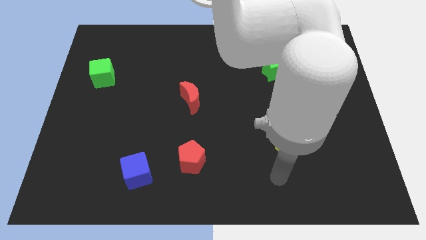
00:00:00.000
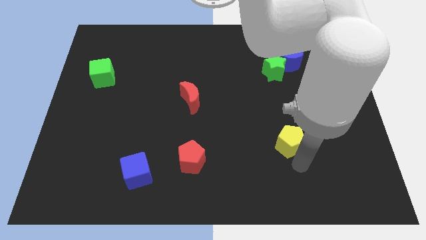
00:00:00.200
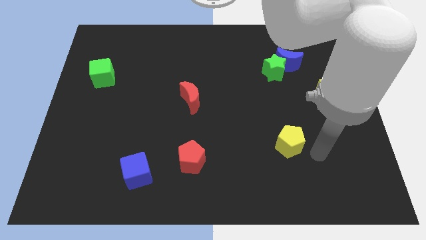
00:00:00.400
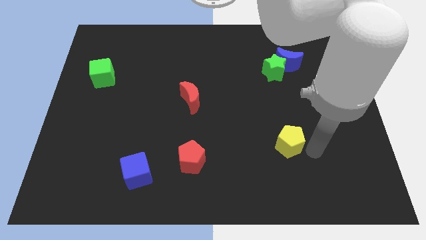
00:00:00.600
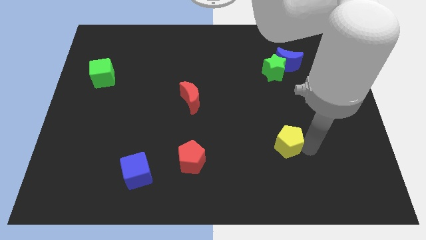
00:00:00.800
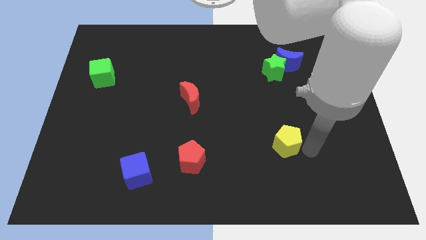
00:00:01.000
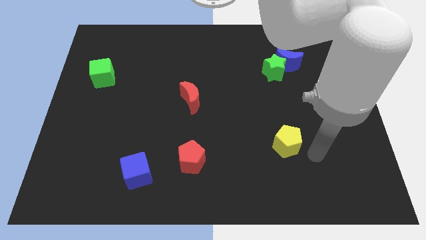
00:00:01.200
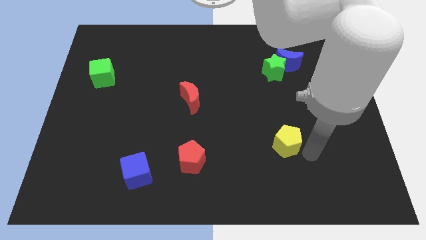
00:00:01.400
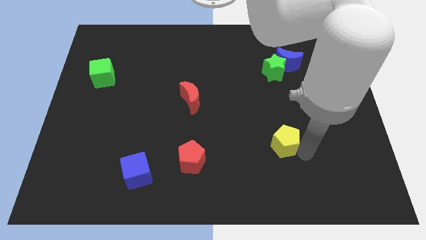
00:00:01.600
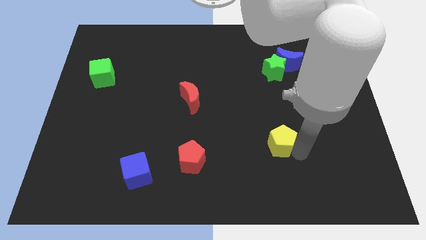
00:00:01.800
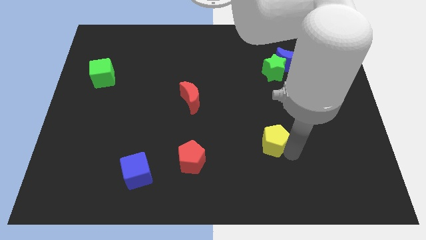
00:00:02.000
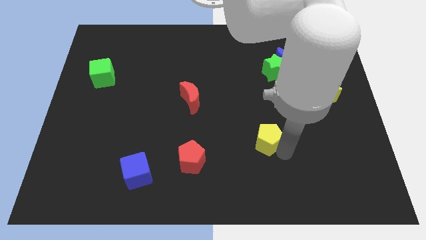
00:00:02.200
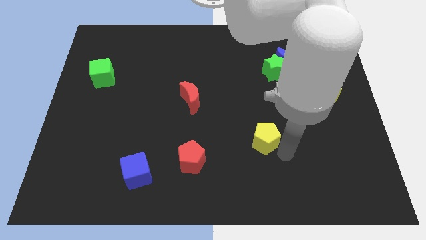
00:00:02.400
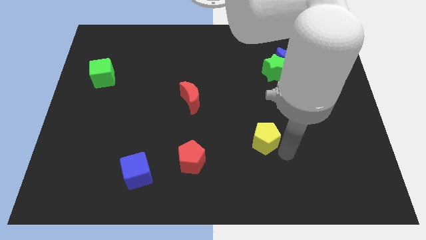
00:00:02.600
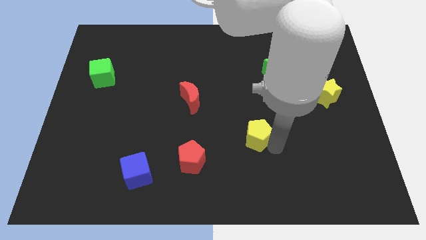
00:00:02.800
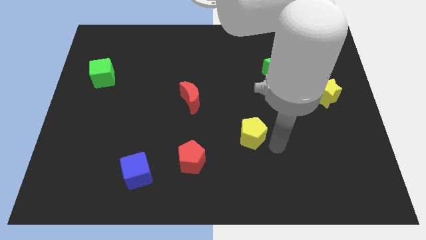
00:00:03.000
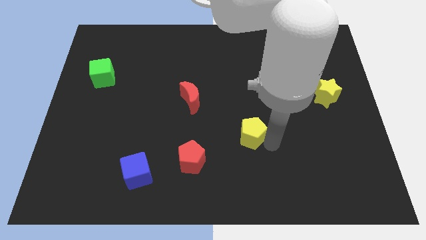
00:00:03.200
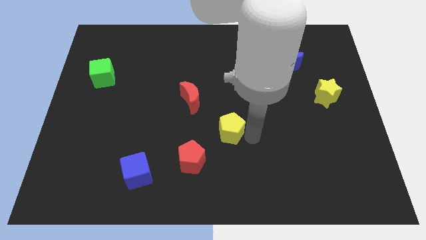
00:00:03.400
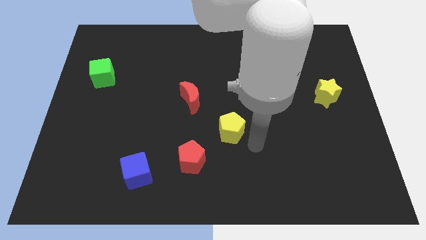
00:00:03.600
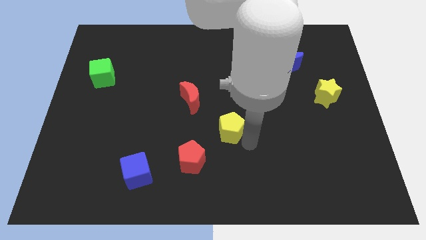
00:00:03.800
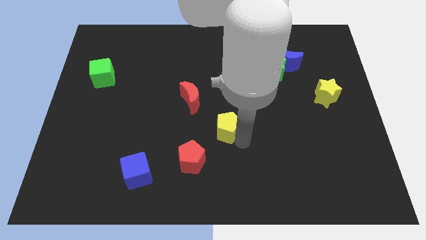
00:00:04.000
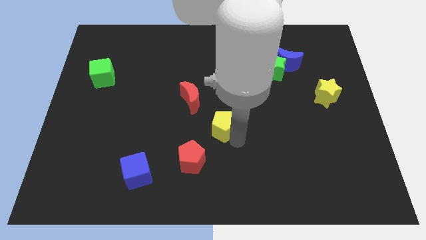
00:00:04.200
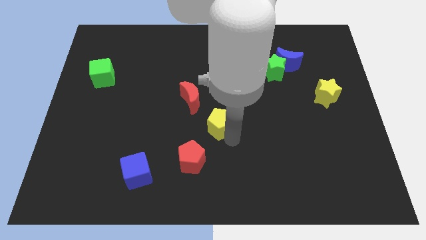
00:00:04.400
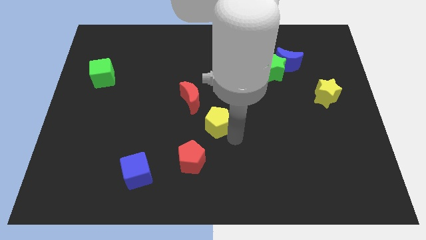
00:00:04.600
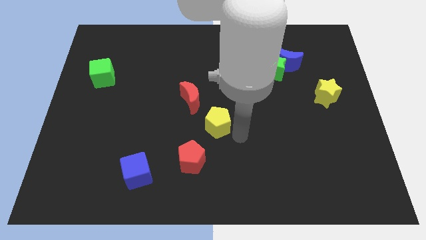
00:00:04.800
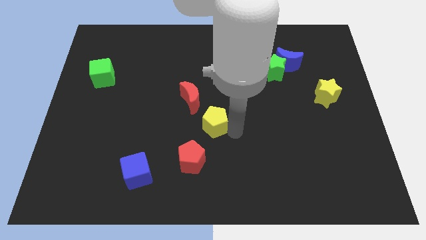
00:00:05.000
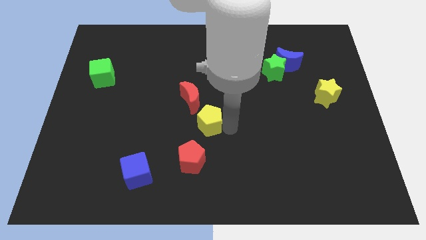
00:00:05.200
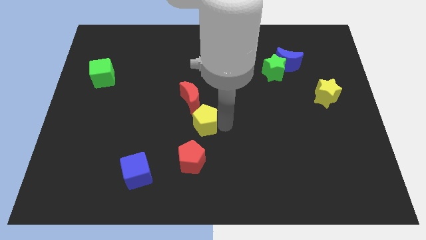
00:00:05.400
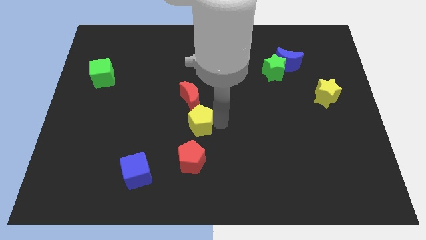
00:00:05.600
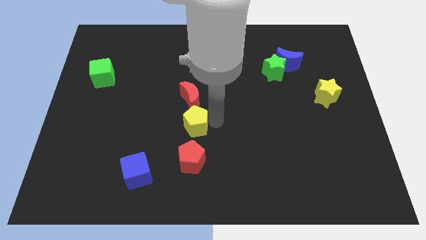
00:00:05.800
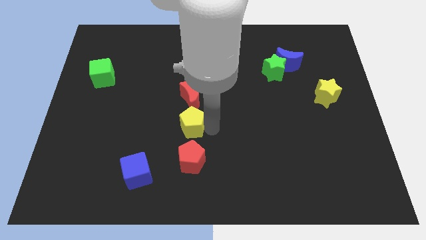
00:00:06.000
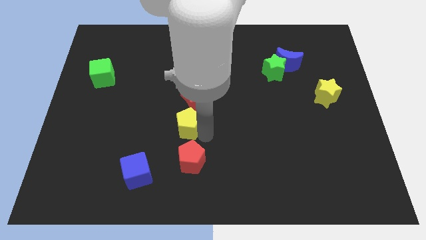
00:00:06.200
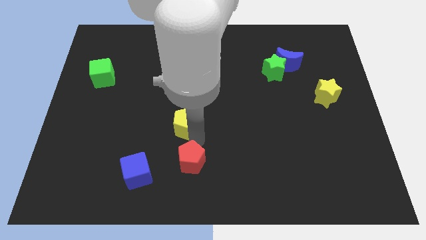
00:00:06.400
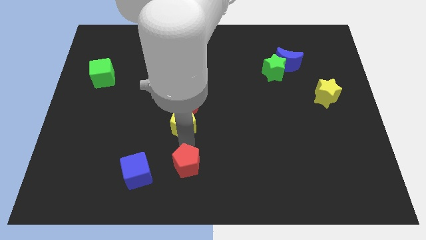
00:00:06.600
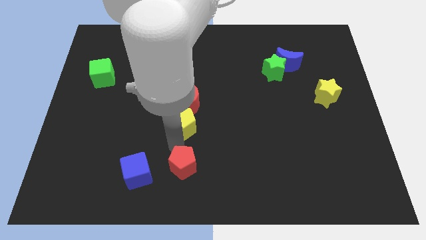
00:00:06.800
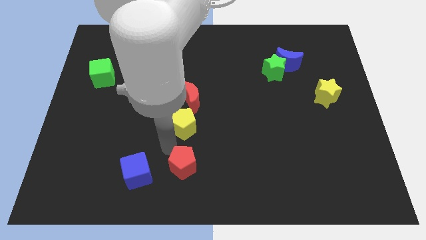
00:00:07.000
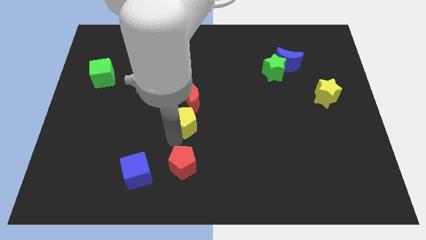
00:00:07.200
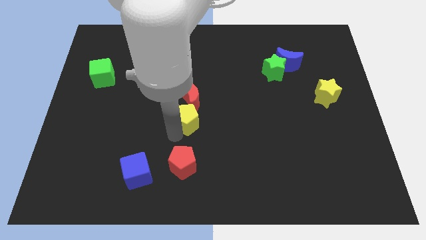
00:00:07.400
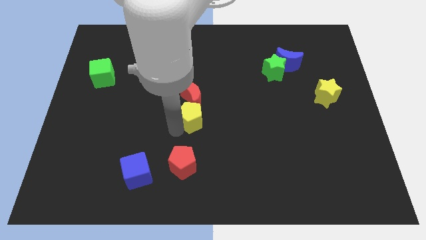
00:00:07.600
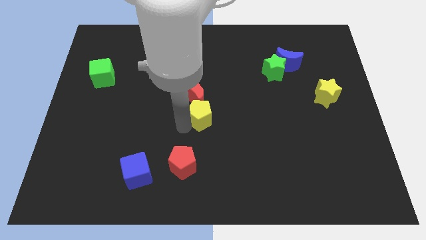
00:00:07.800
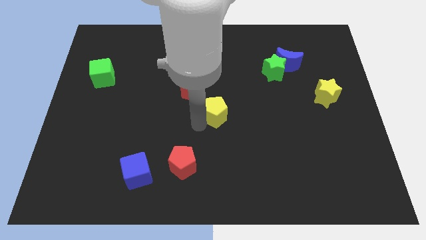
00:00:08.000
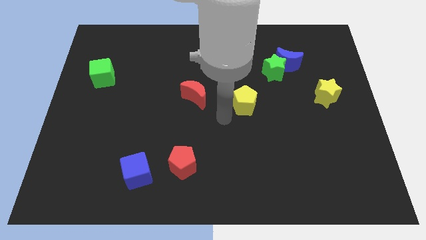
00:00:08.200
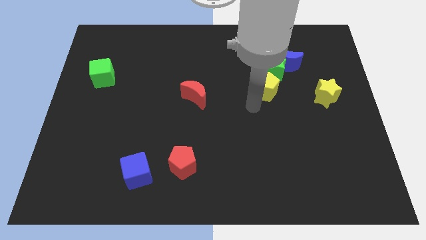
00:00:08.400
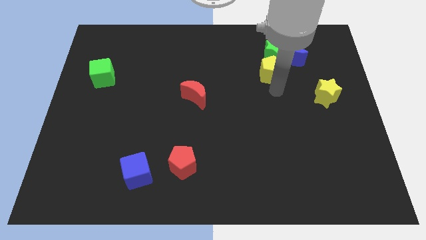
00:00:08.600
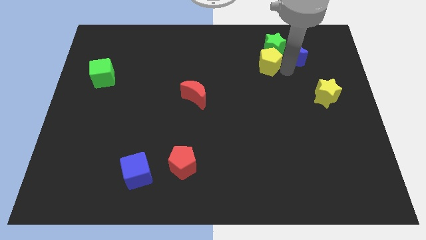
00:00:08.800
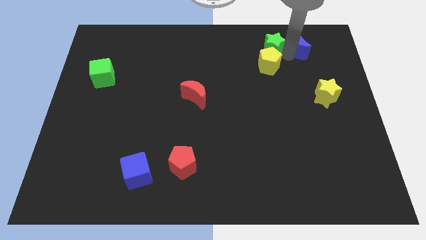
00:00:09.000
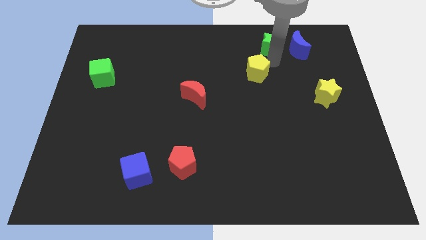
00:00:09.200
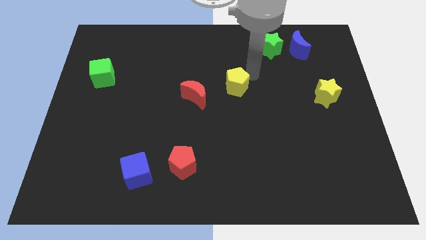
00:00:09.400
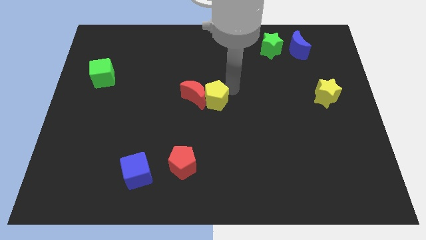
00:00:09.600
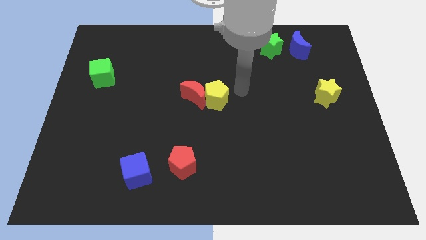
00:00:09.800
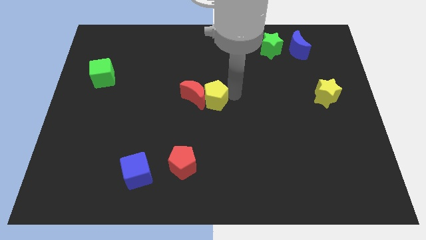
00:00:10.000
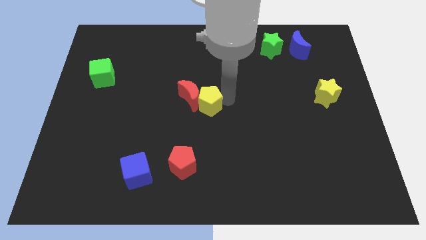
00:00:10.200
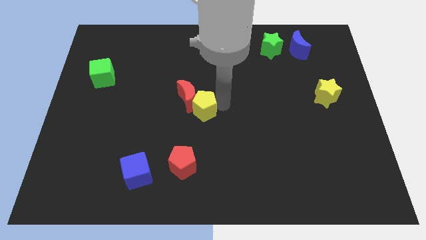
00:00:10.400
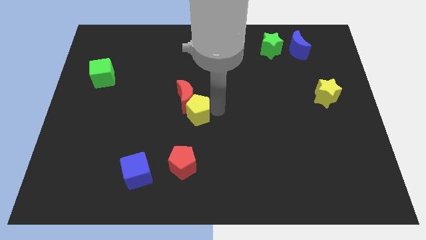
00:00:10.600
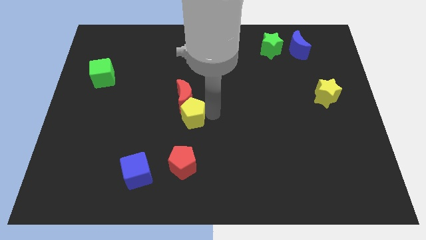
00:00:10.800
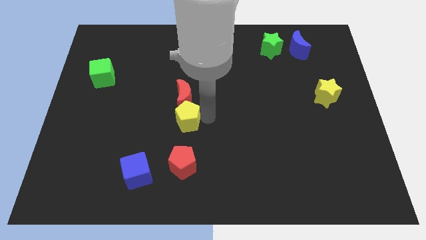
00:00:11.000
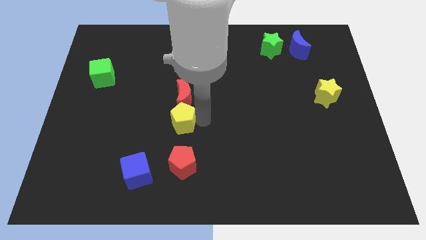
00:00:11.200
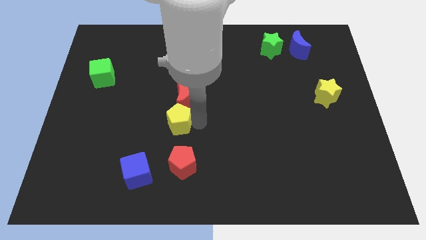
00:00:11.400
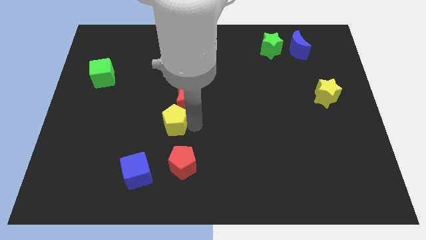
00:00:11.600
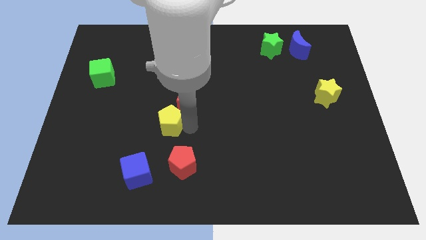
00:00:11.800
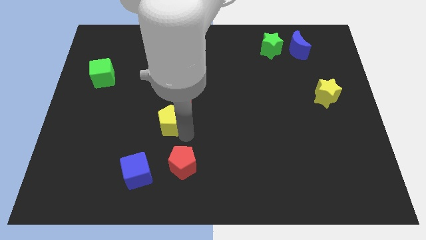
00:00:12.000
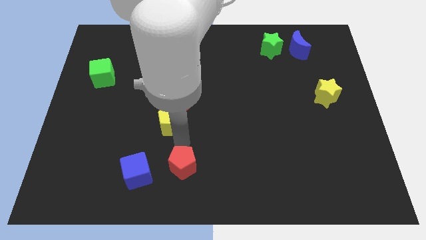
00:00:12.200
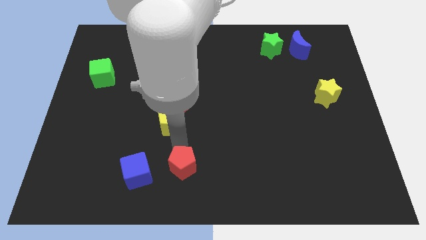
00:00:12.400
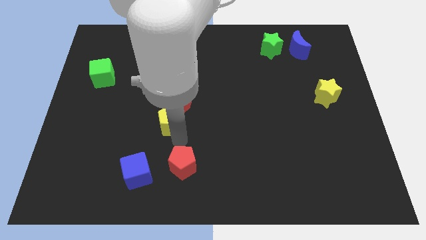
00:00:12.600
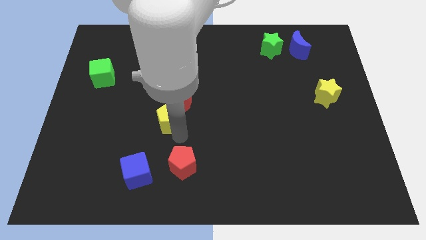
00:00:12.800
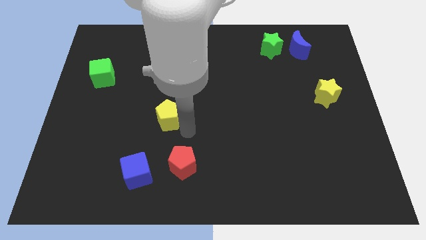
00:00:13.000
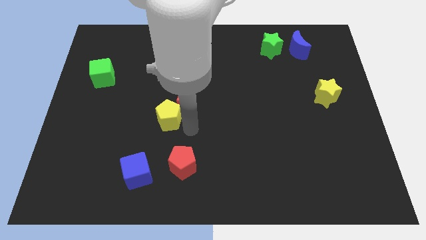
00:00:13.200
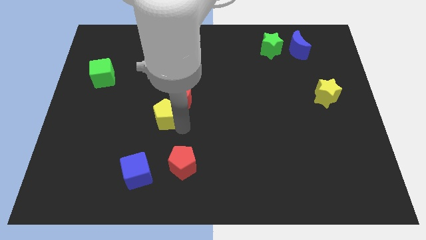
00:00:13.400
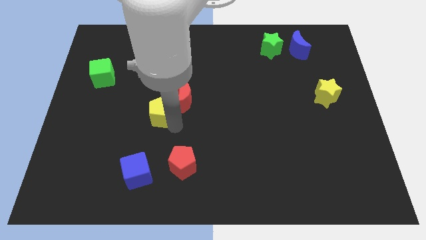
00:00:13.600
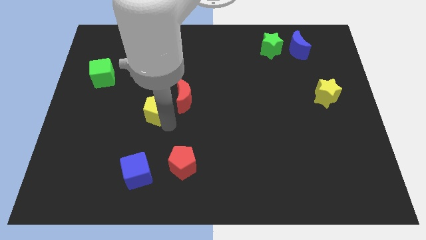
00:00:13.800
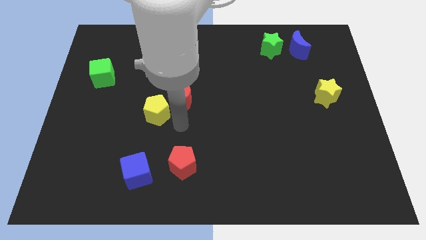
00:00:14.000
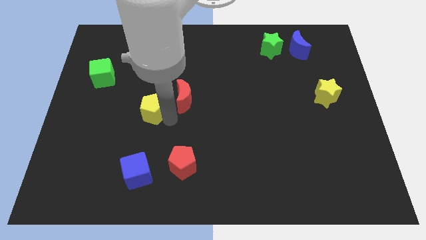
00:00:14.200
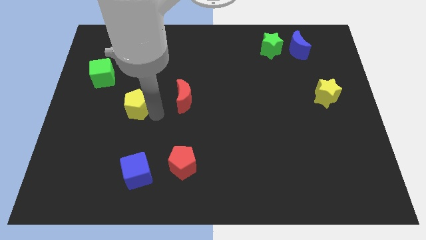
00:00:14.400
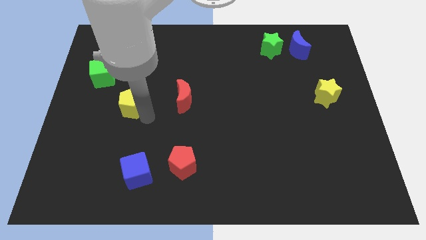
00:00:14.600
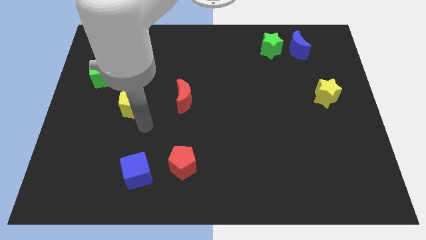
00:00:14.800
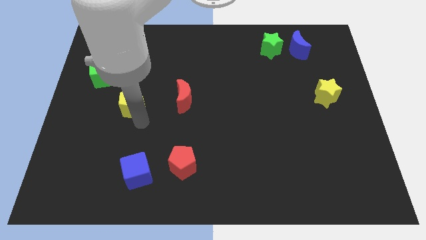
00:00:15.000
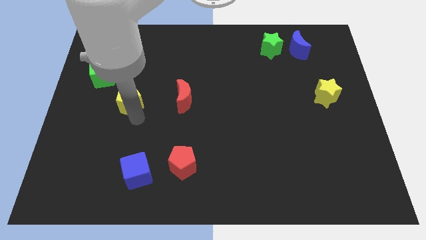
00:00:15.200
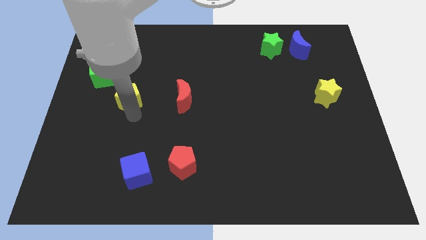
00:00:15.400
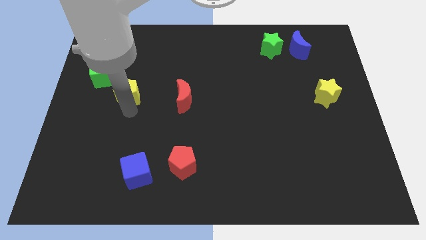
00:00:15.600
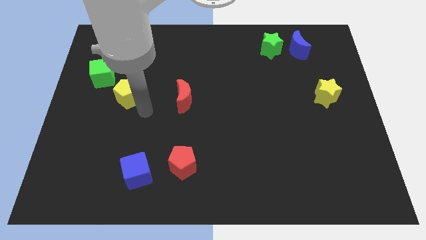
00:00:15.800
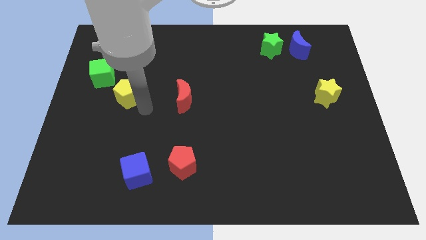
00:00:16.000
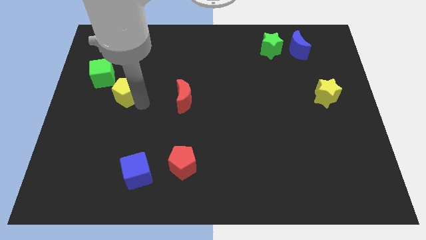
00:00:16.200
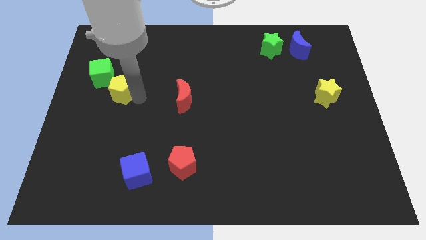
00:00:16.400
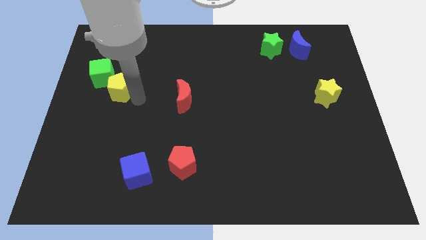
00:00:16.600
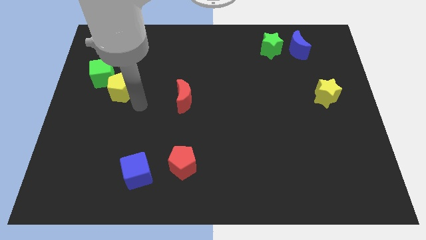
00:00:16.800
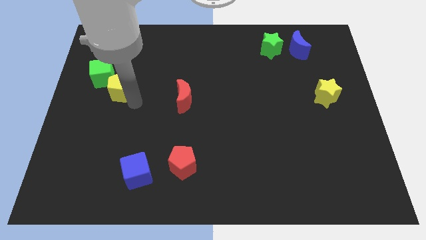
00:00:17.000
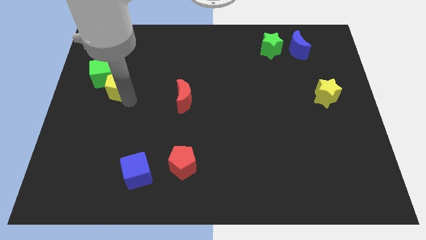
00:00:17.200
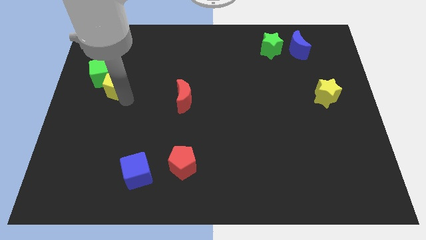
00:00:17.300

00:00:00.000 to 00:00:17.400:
push the yellow pentagon to the green cube
